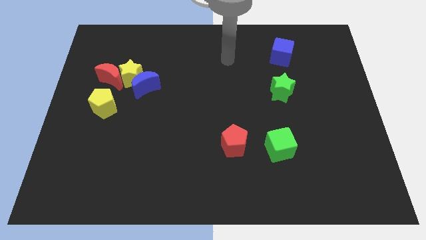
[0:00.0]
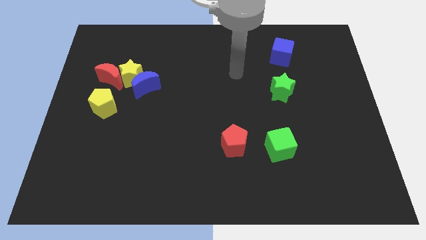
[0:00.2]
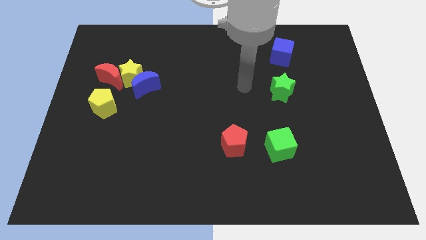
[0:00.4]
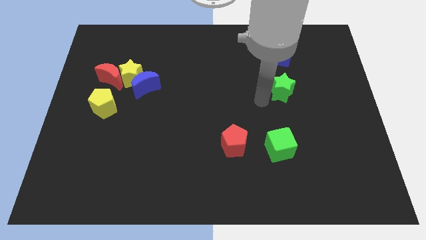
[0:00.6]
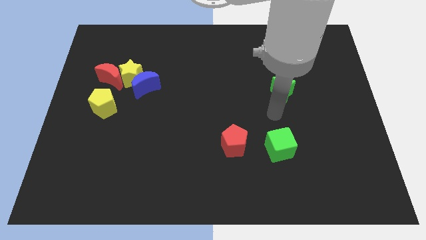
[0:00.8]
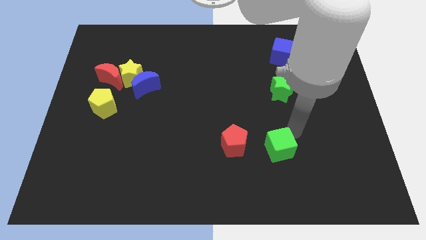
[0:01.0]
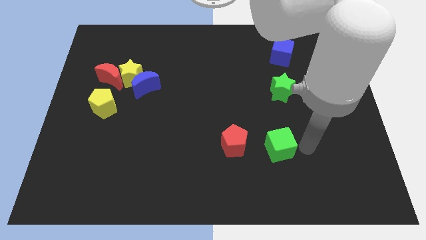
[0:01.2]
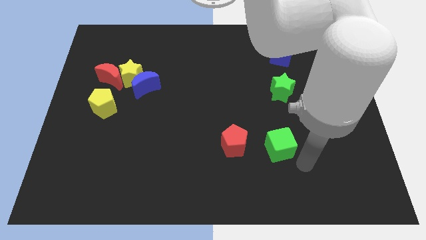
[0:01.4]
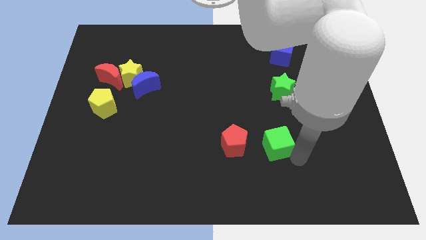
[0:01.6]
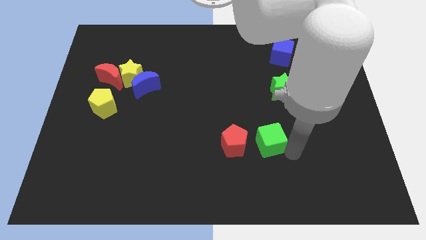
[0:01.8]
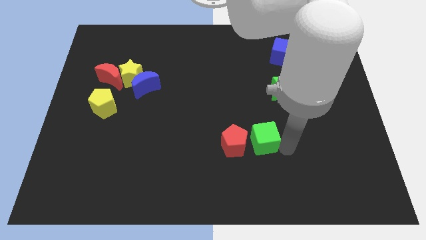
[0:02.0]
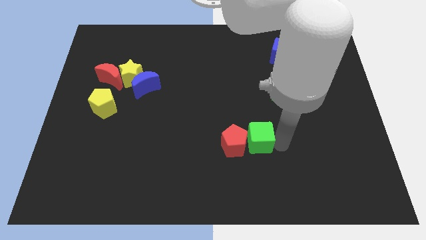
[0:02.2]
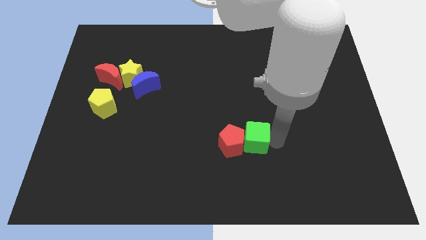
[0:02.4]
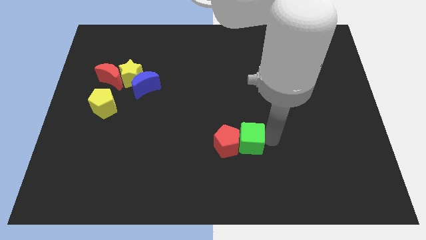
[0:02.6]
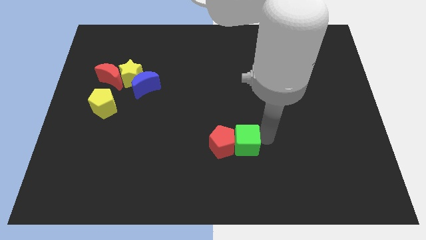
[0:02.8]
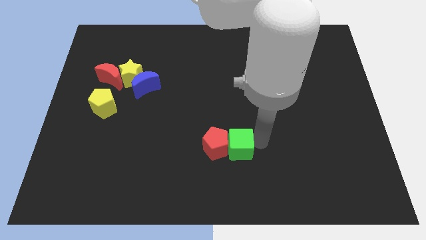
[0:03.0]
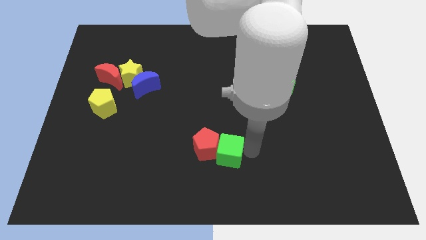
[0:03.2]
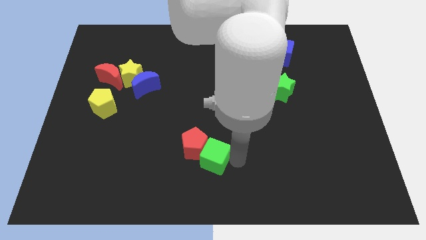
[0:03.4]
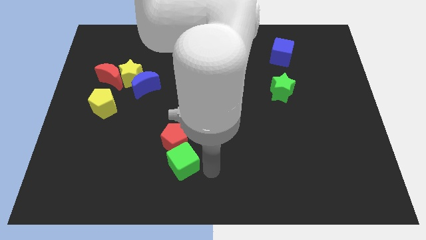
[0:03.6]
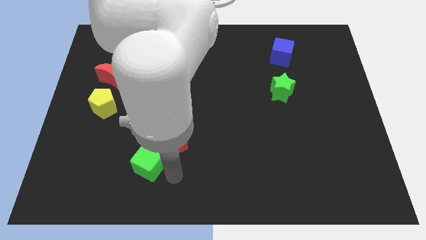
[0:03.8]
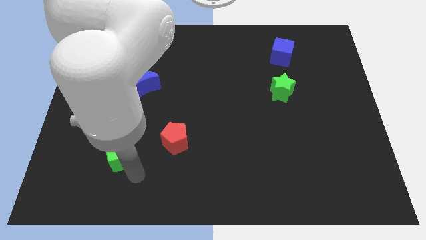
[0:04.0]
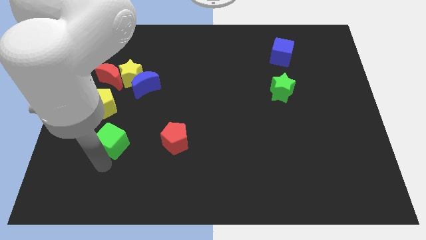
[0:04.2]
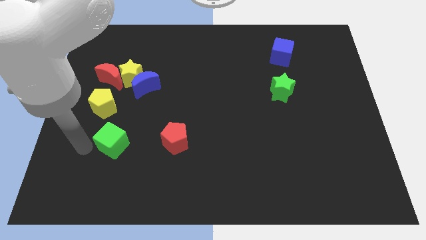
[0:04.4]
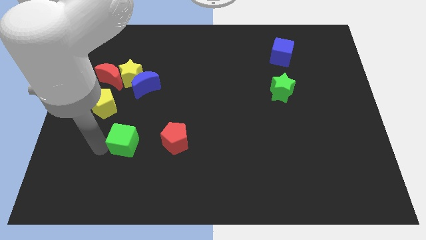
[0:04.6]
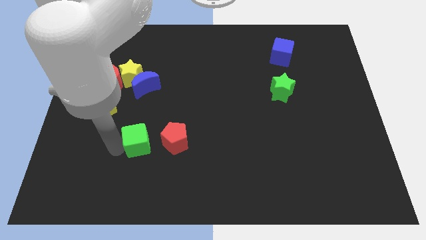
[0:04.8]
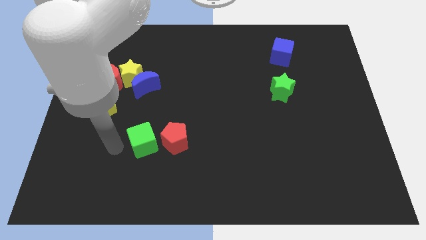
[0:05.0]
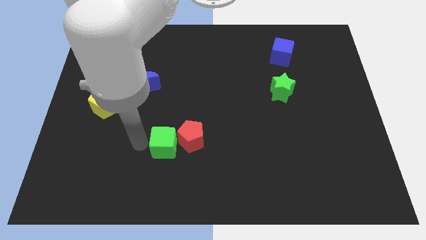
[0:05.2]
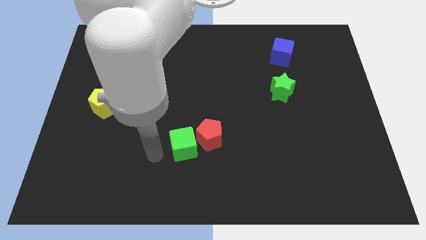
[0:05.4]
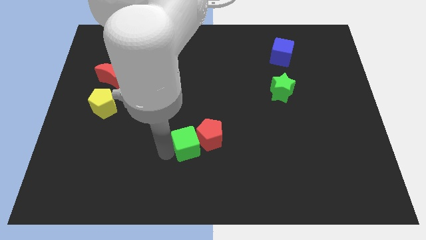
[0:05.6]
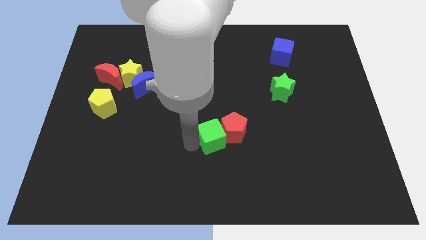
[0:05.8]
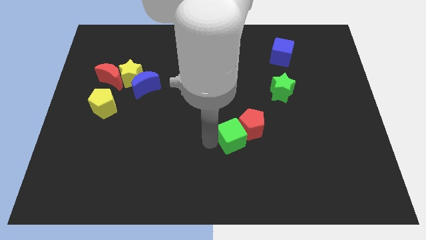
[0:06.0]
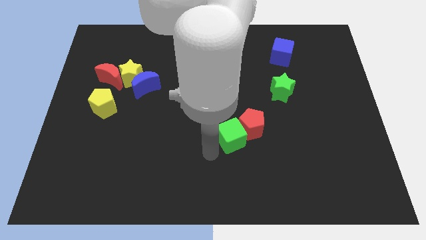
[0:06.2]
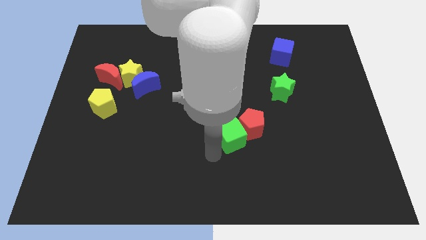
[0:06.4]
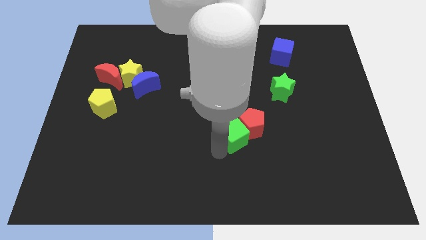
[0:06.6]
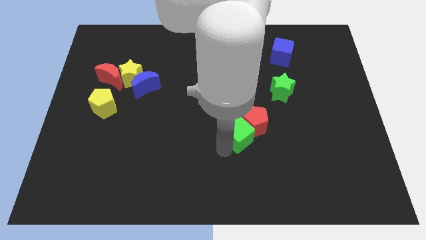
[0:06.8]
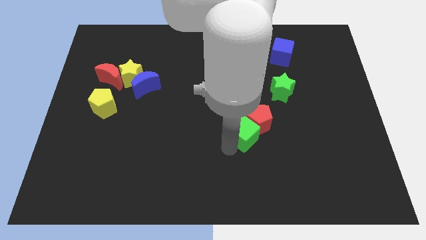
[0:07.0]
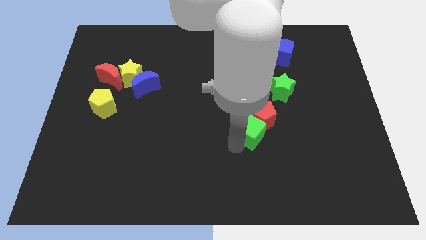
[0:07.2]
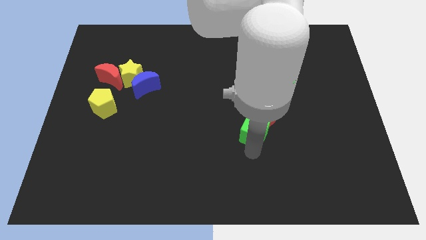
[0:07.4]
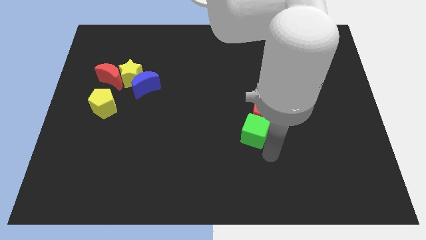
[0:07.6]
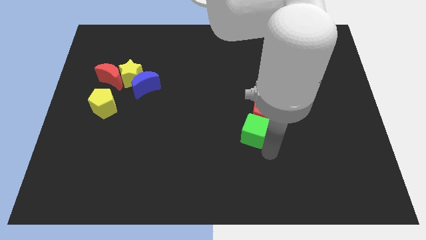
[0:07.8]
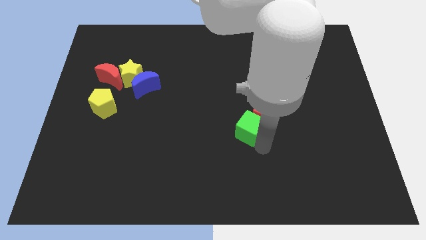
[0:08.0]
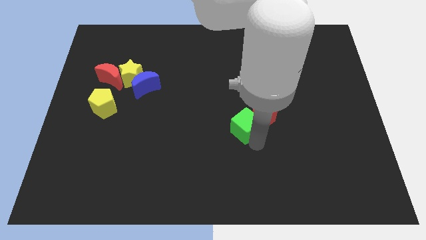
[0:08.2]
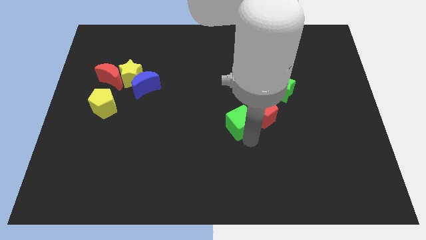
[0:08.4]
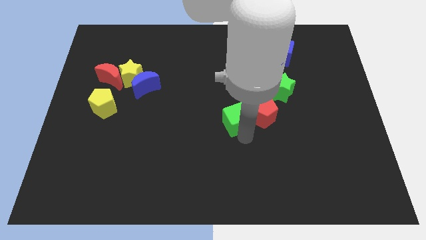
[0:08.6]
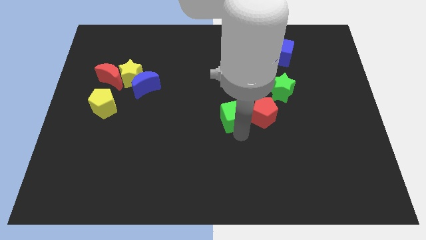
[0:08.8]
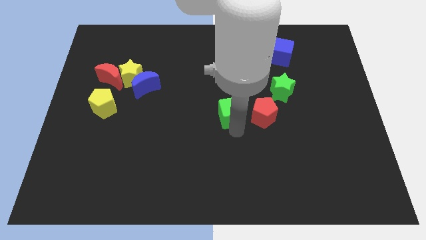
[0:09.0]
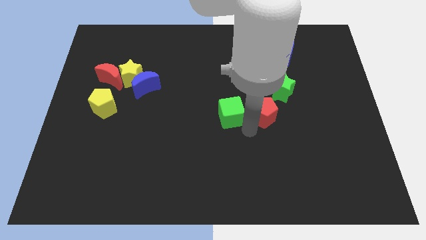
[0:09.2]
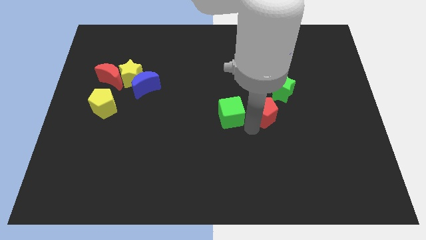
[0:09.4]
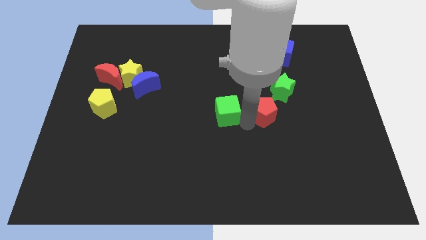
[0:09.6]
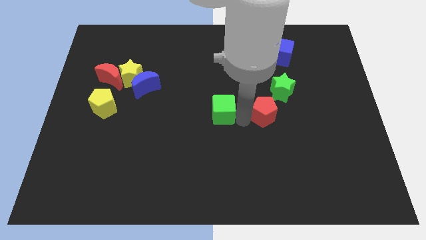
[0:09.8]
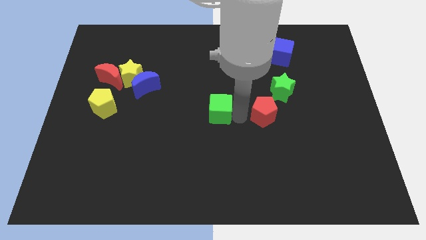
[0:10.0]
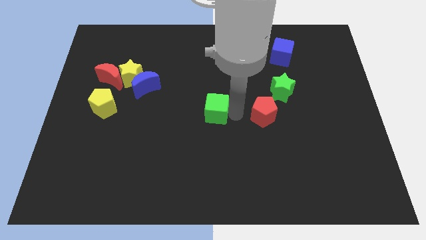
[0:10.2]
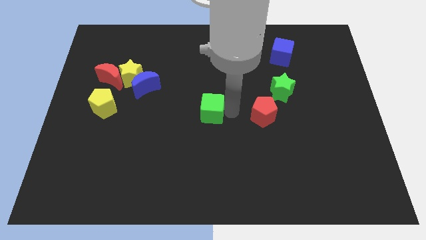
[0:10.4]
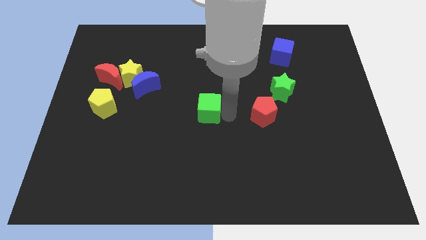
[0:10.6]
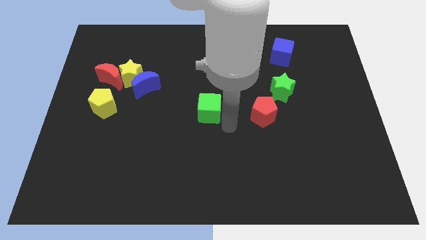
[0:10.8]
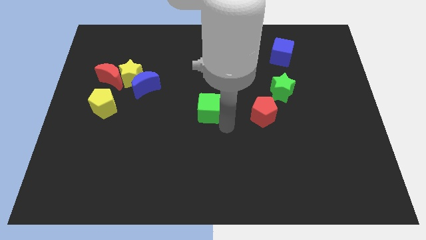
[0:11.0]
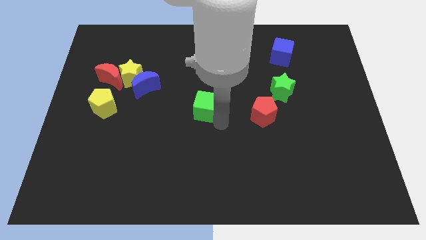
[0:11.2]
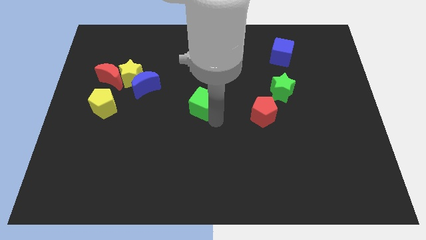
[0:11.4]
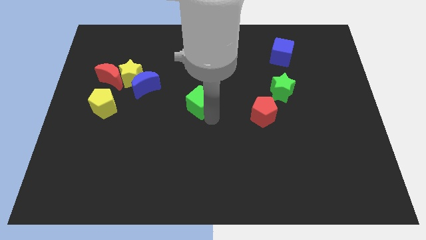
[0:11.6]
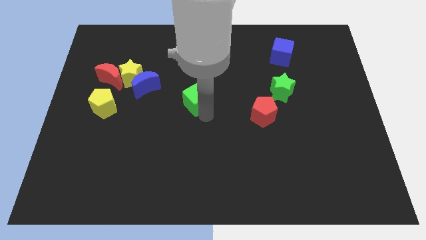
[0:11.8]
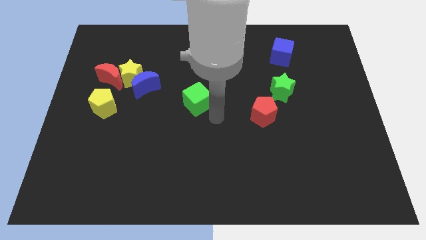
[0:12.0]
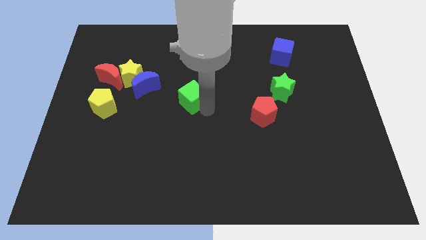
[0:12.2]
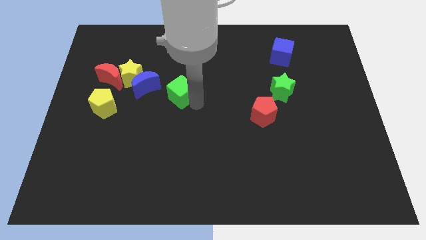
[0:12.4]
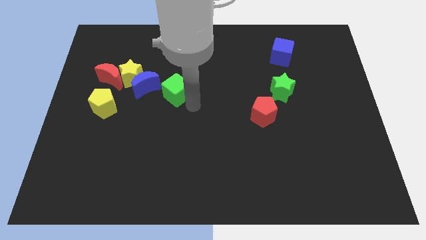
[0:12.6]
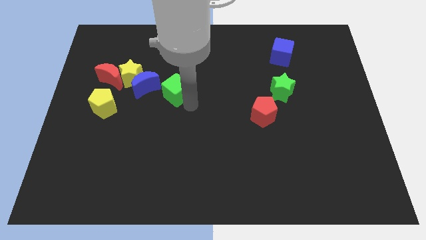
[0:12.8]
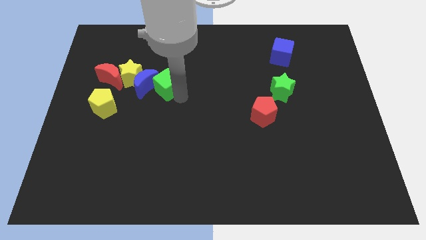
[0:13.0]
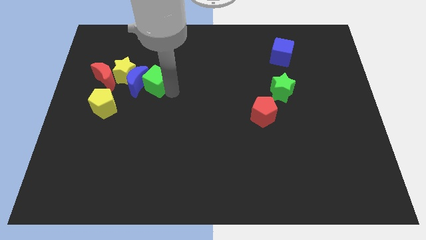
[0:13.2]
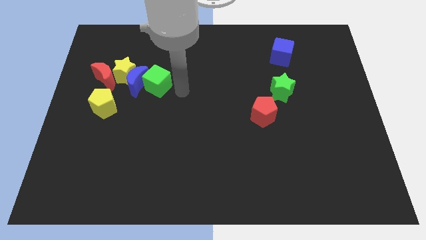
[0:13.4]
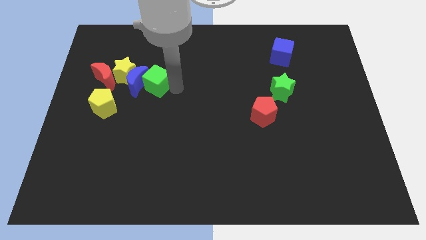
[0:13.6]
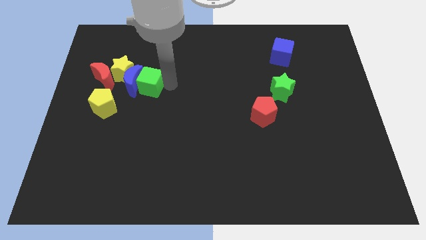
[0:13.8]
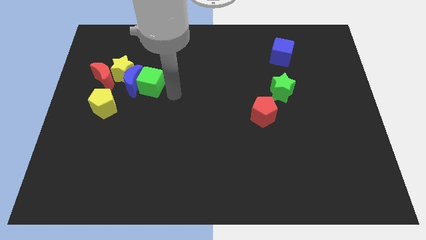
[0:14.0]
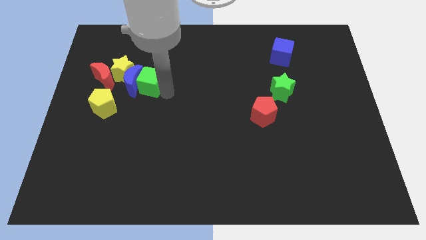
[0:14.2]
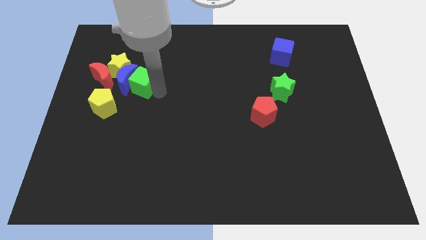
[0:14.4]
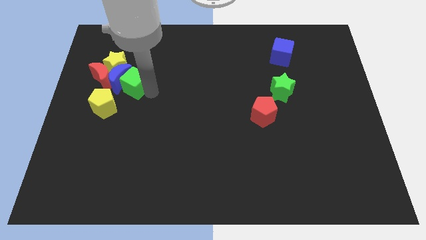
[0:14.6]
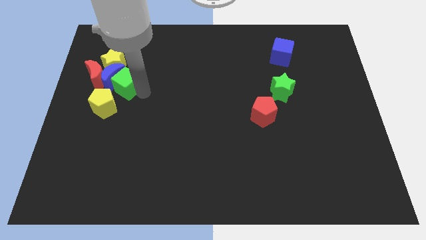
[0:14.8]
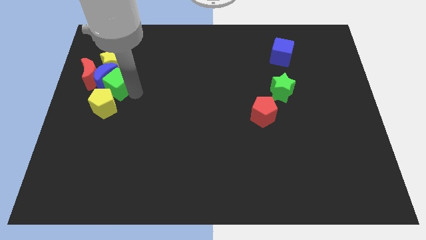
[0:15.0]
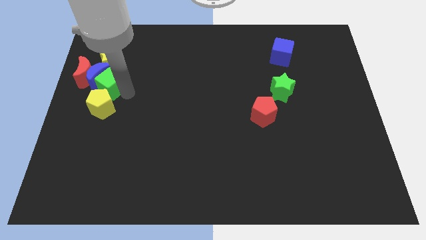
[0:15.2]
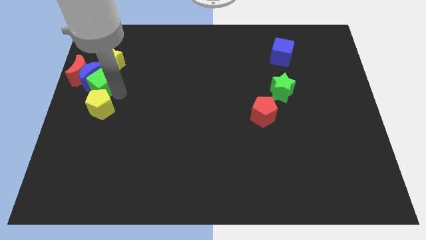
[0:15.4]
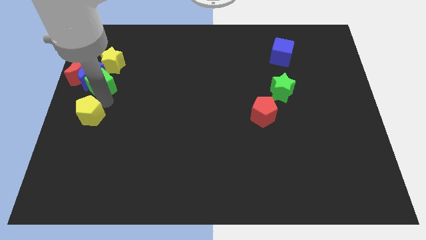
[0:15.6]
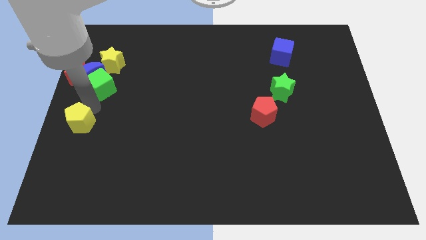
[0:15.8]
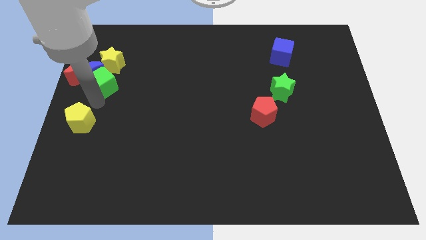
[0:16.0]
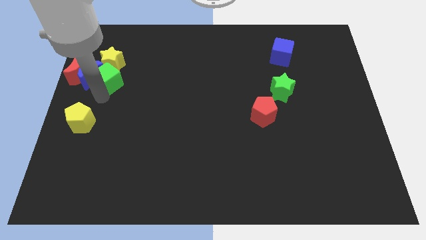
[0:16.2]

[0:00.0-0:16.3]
slide the green cube towards the yellow star
